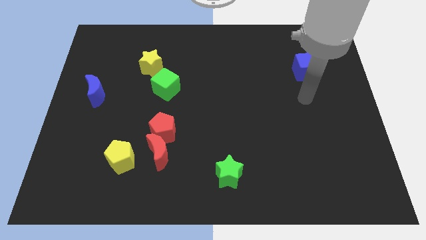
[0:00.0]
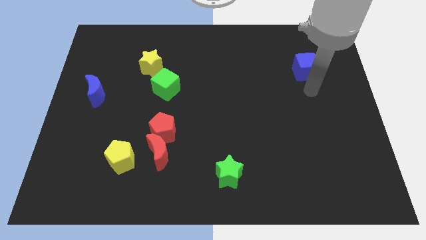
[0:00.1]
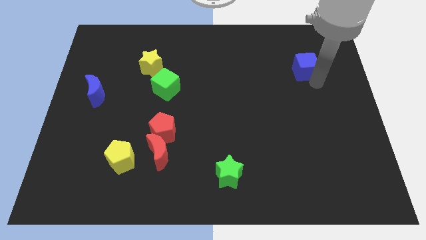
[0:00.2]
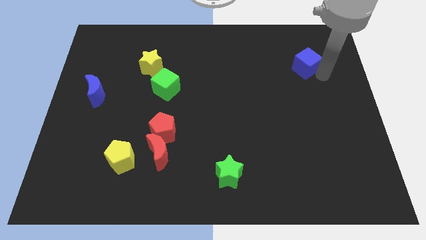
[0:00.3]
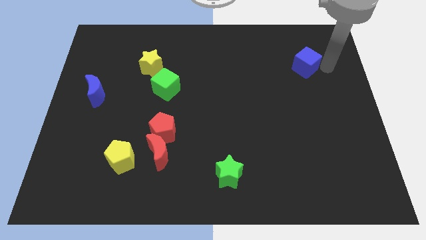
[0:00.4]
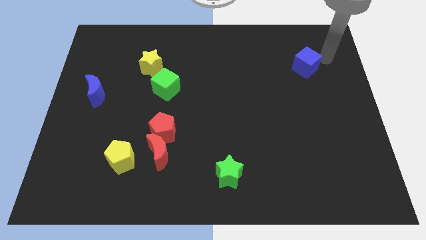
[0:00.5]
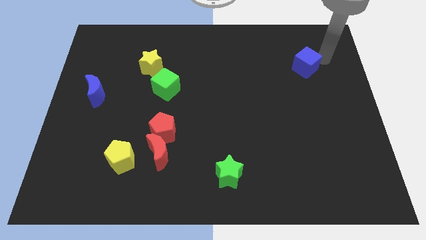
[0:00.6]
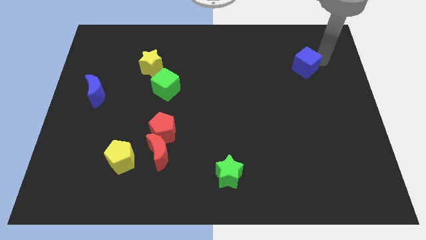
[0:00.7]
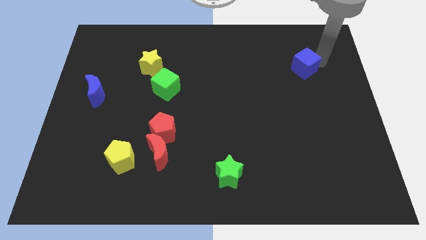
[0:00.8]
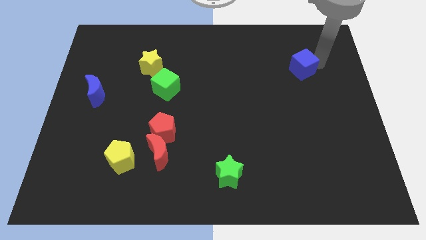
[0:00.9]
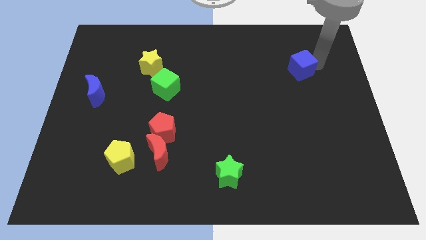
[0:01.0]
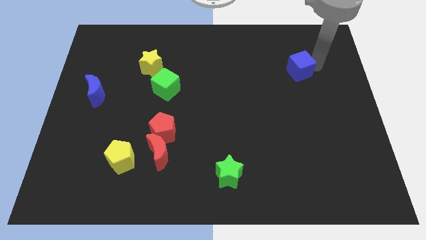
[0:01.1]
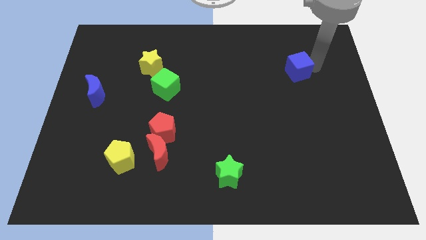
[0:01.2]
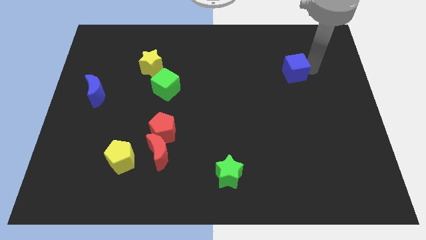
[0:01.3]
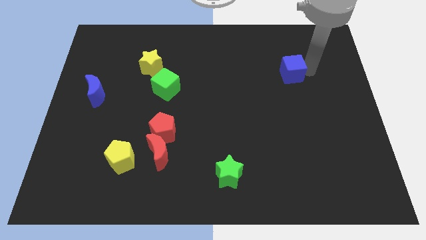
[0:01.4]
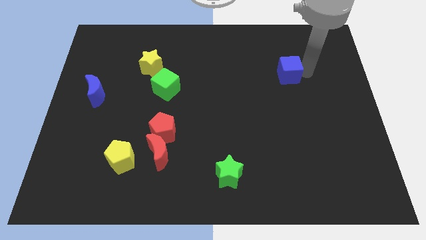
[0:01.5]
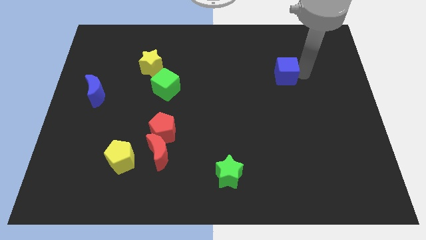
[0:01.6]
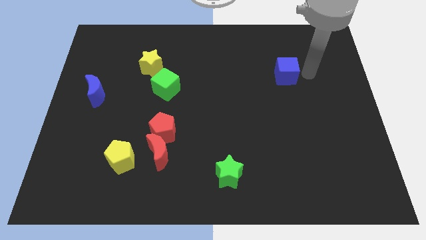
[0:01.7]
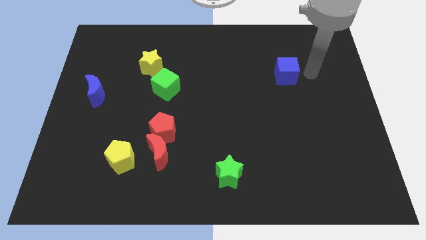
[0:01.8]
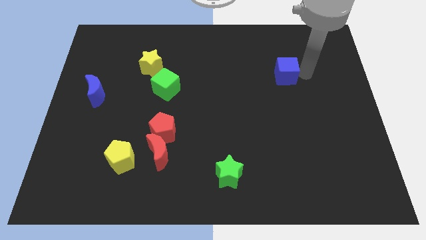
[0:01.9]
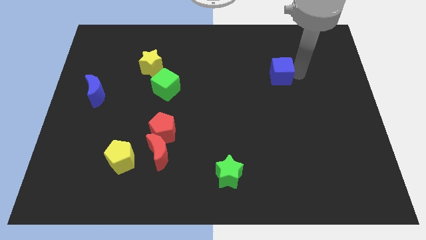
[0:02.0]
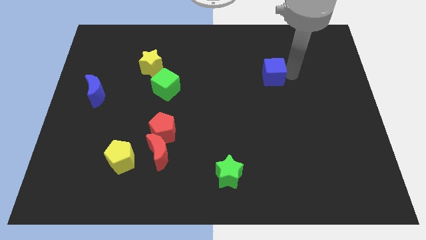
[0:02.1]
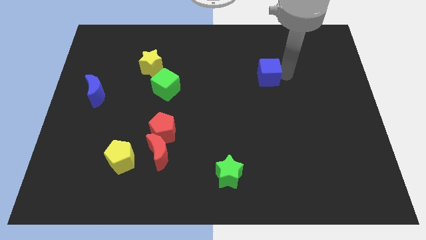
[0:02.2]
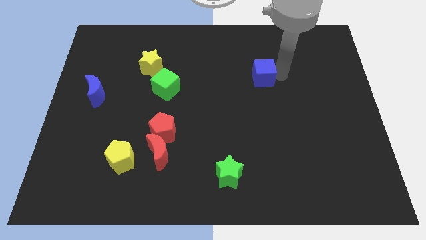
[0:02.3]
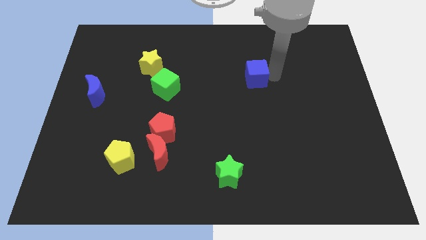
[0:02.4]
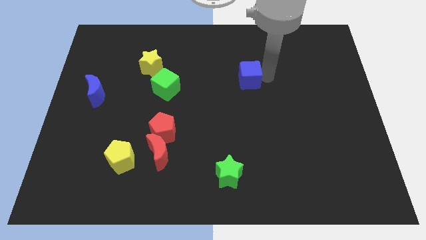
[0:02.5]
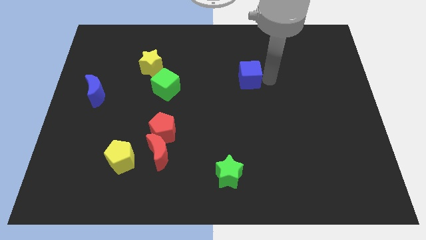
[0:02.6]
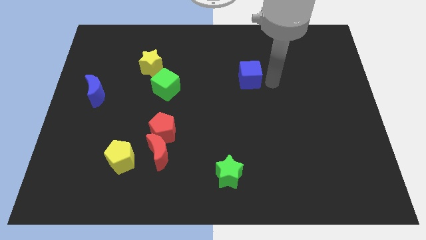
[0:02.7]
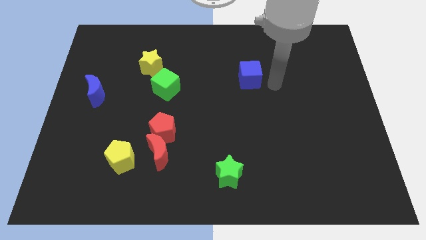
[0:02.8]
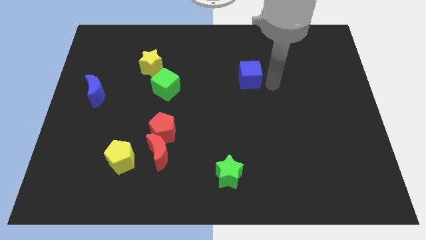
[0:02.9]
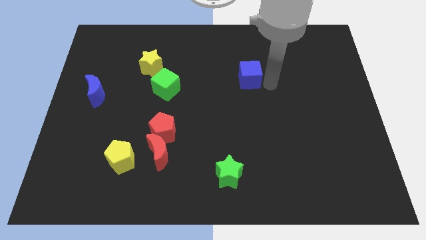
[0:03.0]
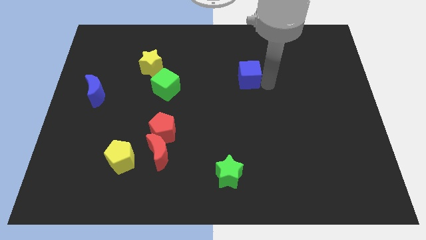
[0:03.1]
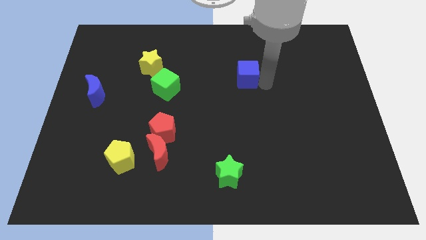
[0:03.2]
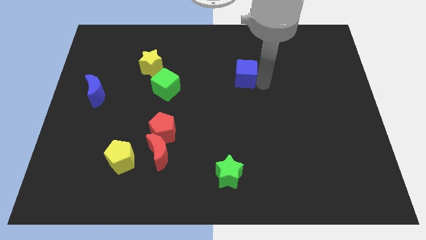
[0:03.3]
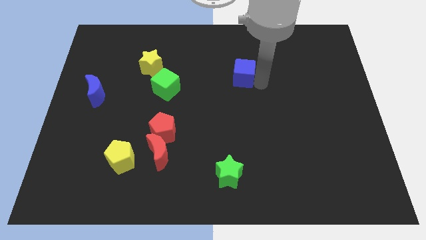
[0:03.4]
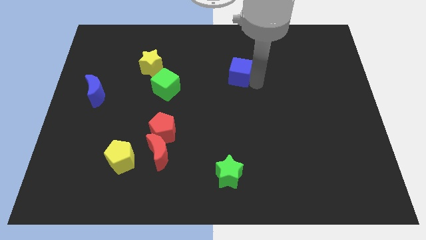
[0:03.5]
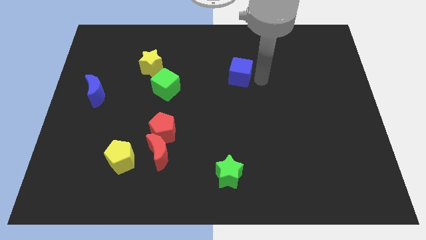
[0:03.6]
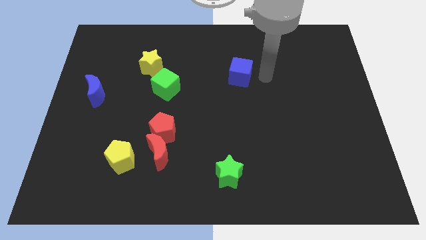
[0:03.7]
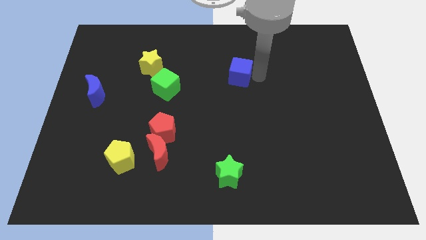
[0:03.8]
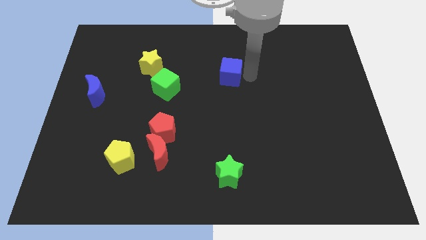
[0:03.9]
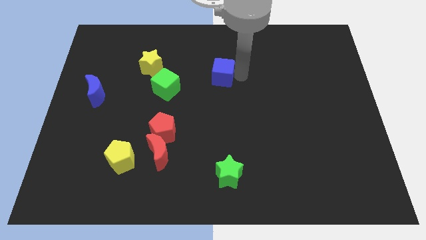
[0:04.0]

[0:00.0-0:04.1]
push the blue cube to the left

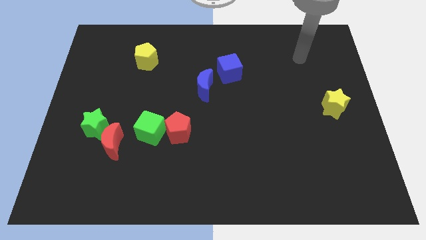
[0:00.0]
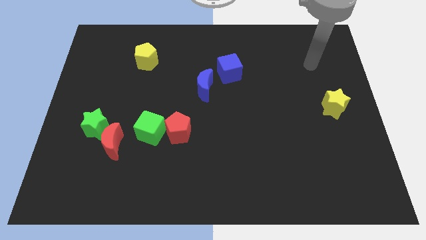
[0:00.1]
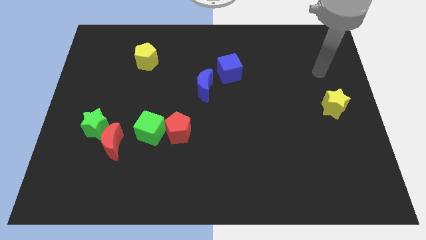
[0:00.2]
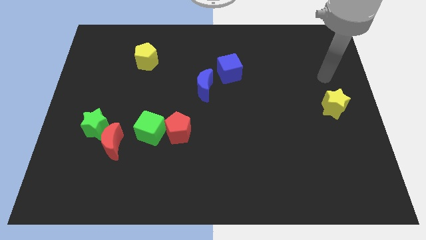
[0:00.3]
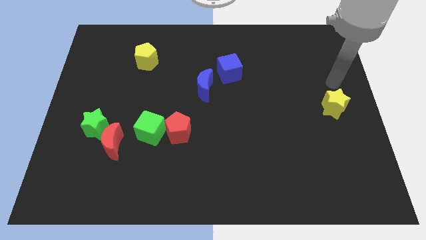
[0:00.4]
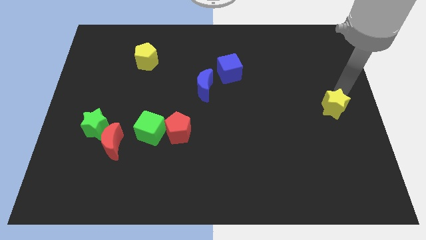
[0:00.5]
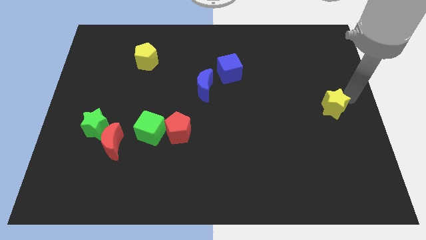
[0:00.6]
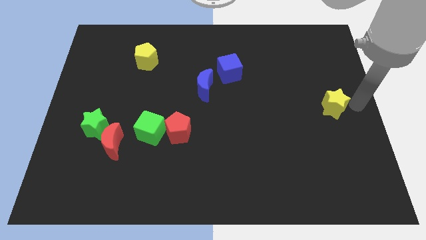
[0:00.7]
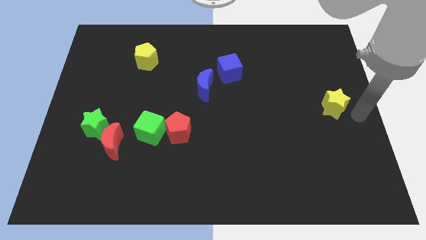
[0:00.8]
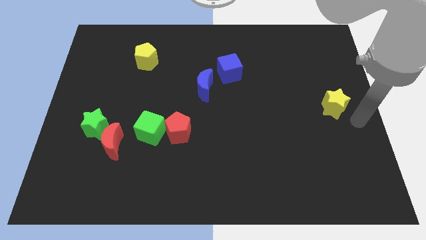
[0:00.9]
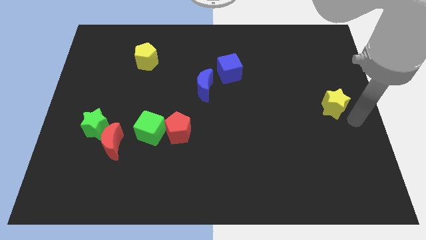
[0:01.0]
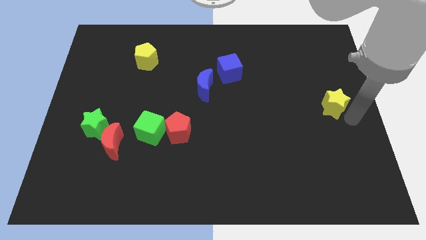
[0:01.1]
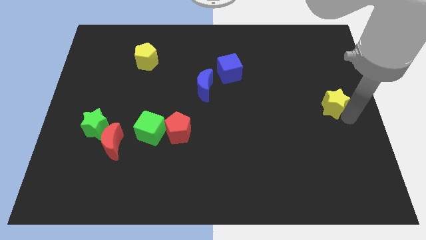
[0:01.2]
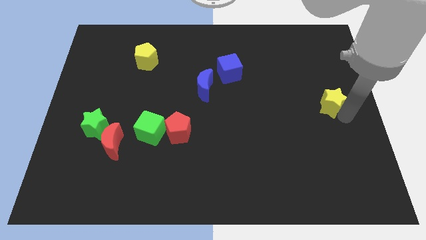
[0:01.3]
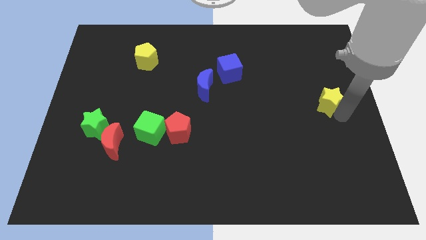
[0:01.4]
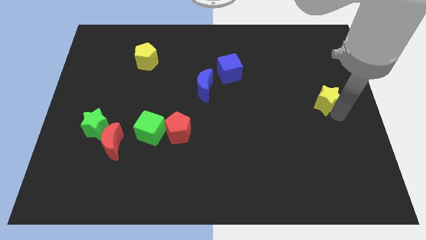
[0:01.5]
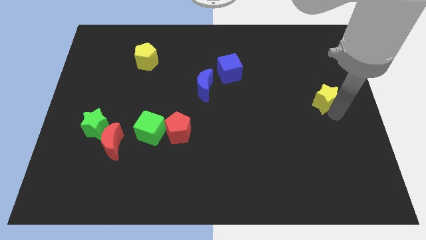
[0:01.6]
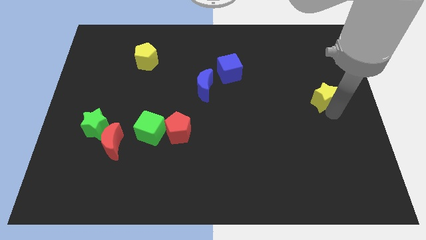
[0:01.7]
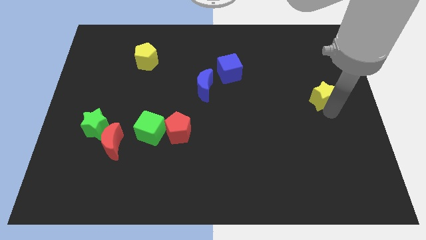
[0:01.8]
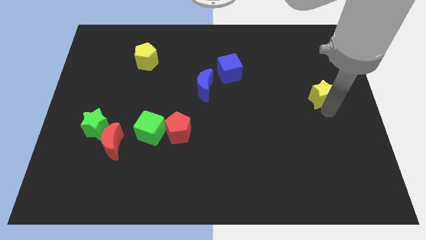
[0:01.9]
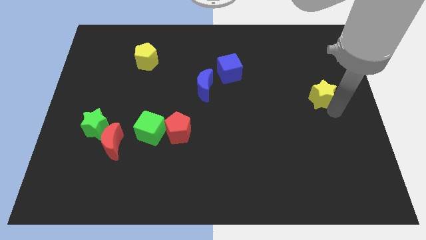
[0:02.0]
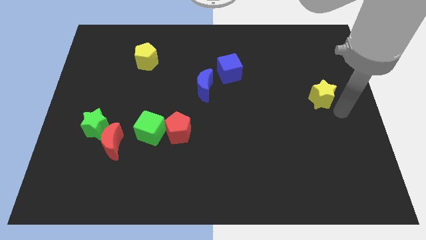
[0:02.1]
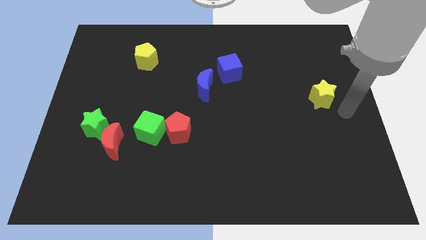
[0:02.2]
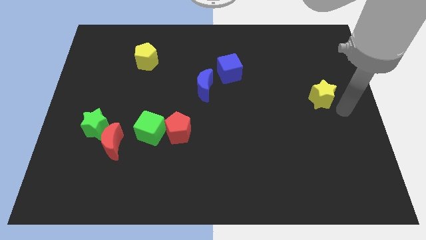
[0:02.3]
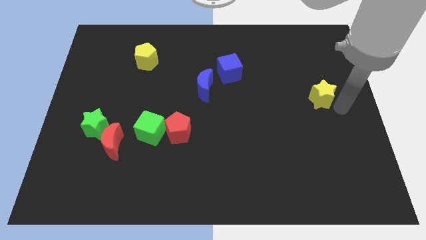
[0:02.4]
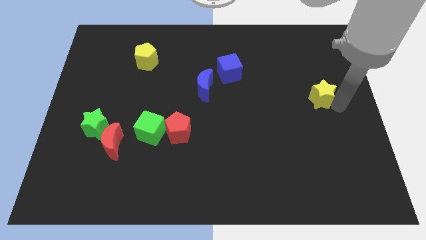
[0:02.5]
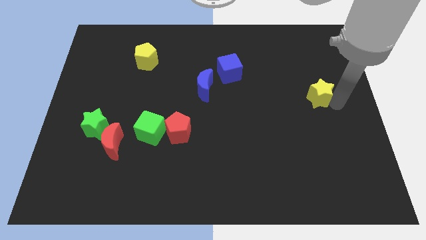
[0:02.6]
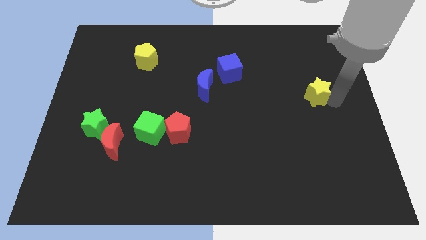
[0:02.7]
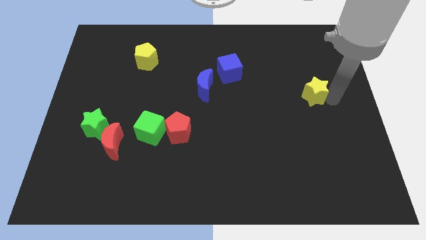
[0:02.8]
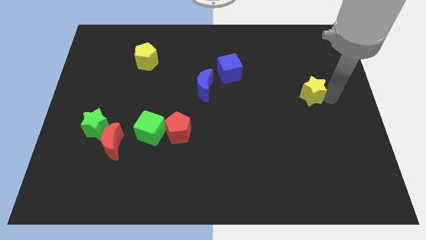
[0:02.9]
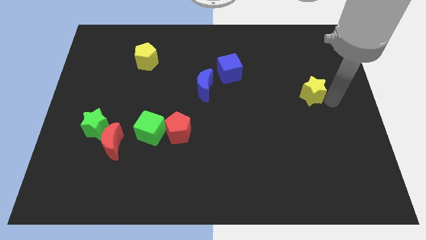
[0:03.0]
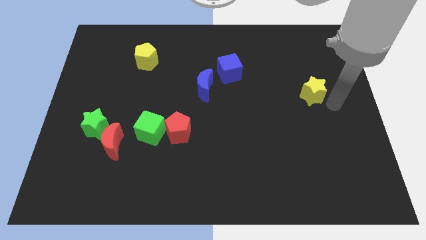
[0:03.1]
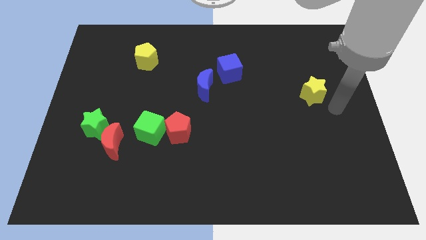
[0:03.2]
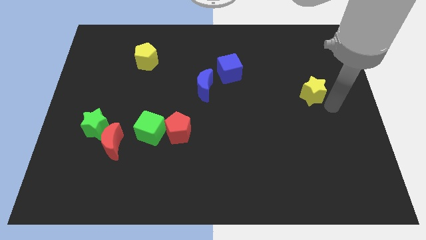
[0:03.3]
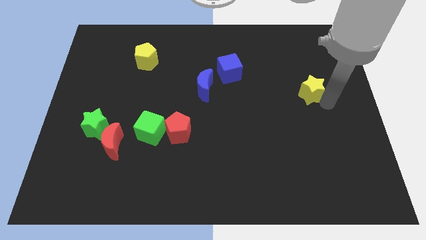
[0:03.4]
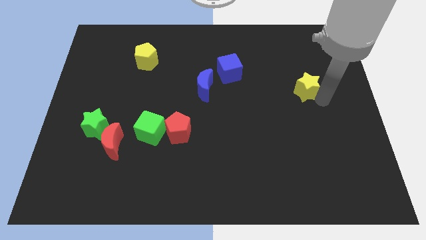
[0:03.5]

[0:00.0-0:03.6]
slightly move the yellow star diagonally upwards and to the left

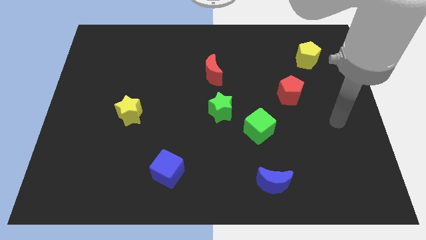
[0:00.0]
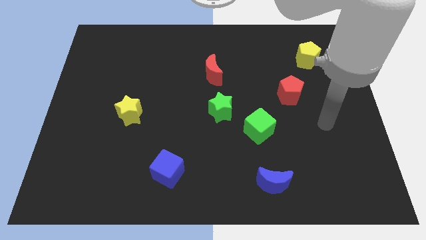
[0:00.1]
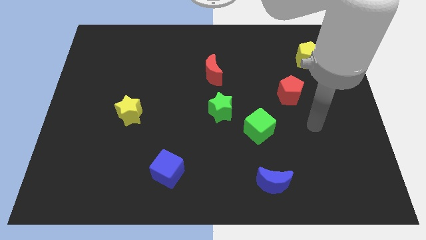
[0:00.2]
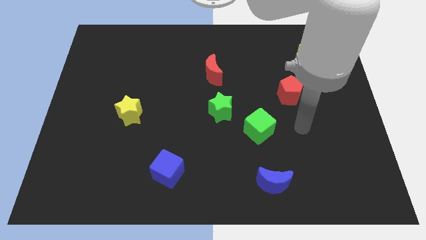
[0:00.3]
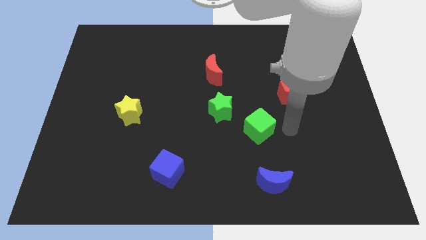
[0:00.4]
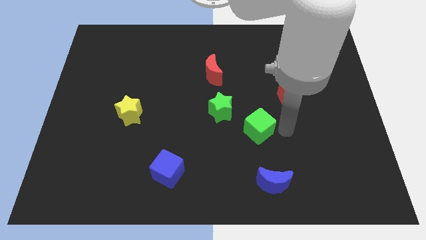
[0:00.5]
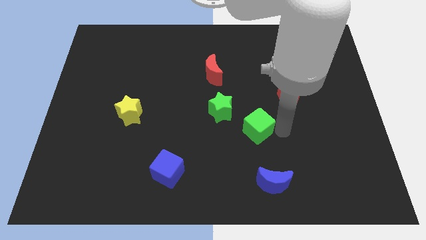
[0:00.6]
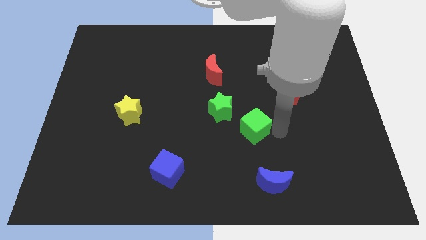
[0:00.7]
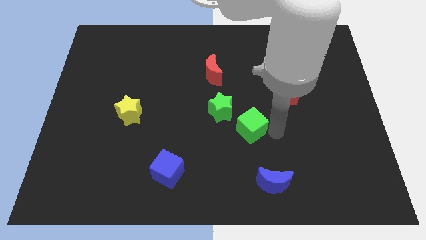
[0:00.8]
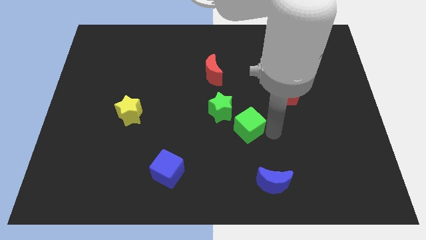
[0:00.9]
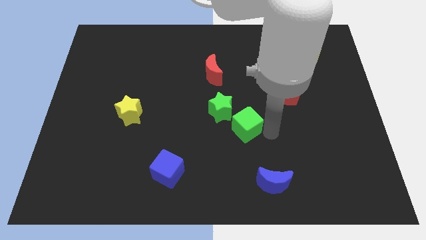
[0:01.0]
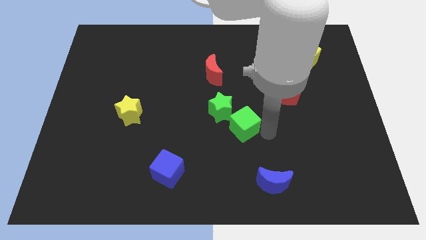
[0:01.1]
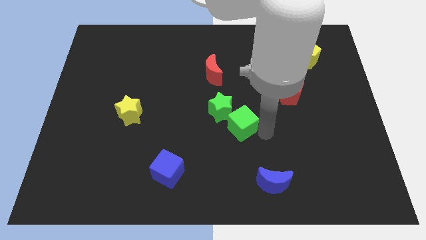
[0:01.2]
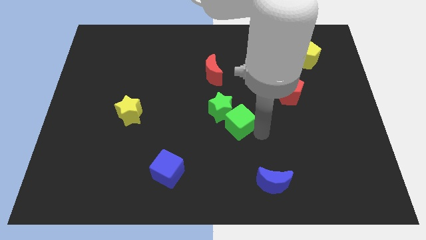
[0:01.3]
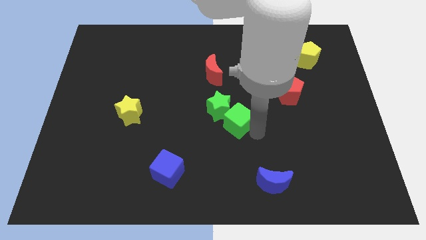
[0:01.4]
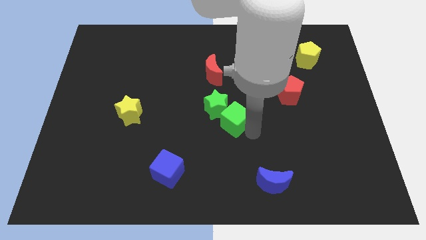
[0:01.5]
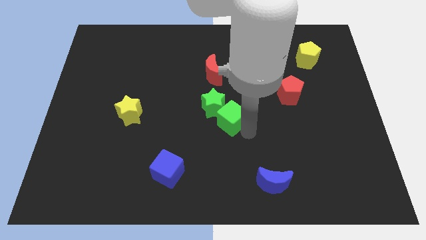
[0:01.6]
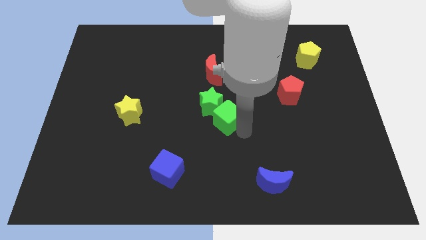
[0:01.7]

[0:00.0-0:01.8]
push the green cube to the left a bit
